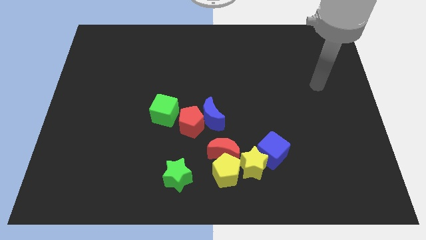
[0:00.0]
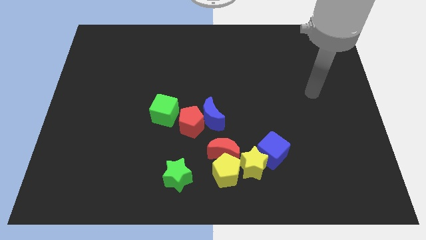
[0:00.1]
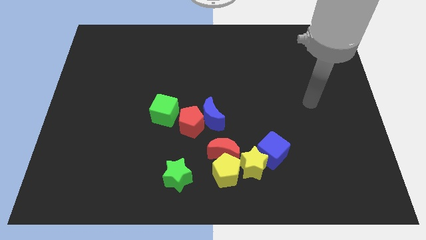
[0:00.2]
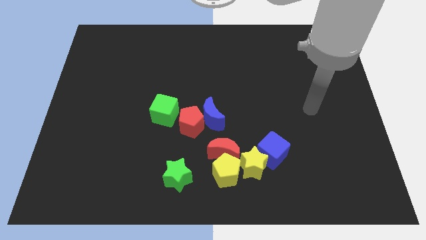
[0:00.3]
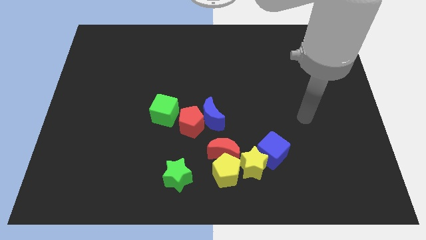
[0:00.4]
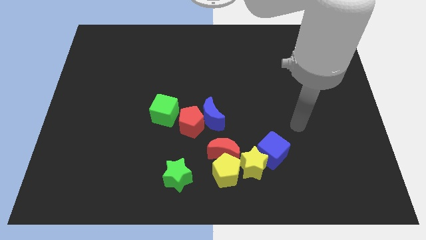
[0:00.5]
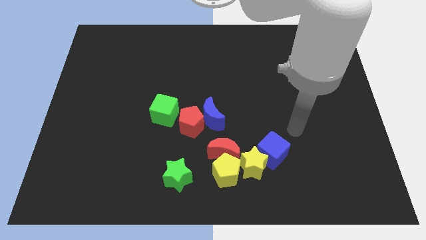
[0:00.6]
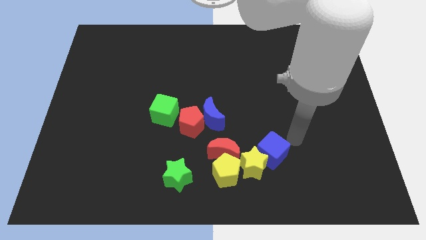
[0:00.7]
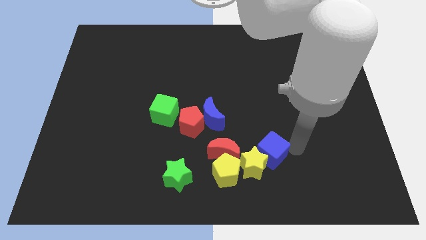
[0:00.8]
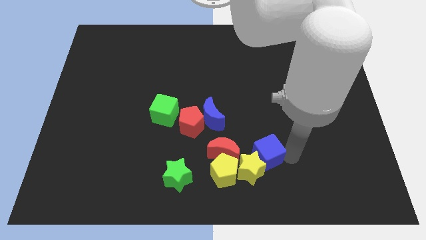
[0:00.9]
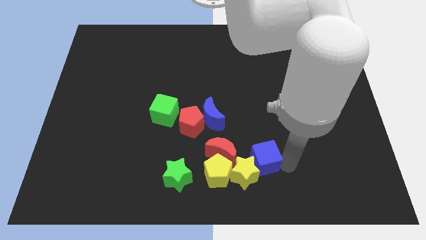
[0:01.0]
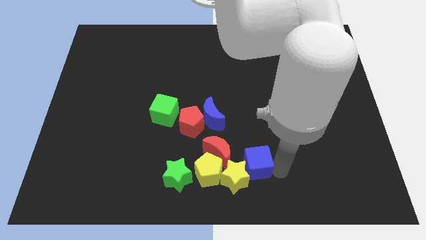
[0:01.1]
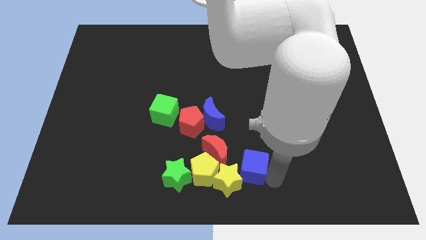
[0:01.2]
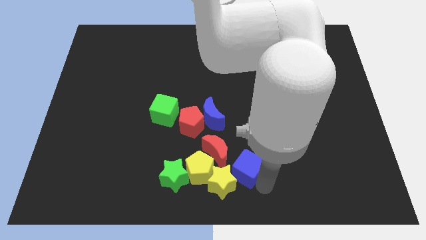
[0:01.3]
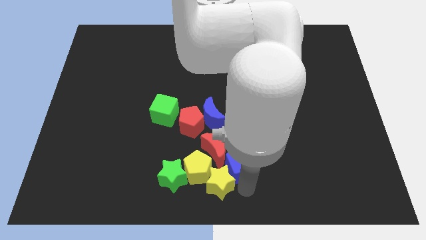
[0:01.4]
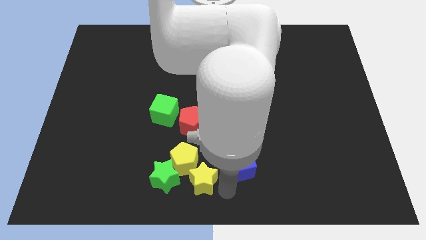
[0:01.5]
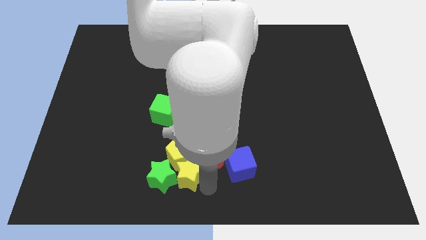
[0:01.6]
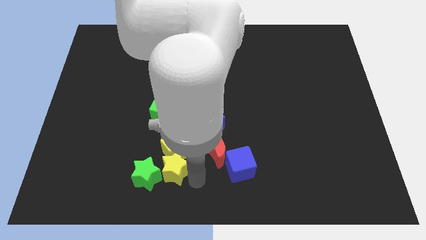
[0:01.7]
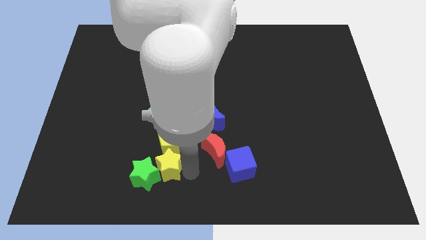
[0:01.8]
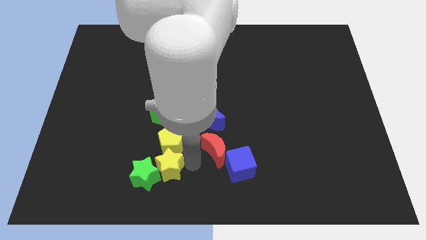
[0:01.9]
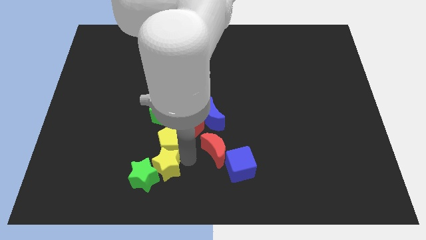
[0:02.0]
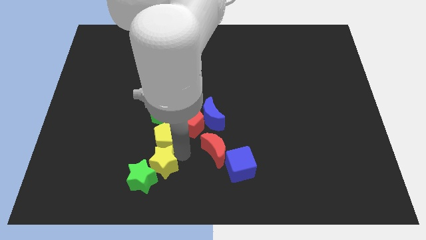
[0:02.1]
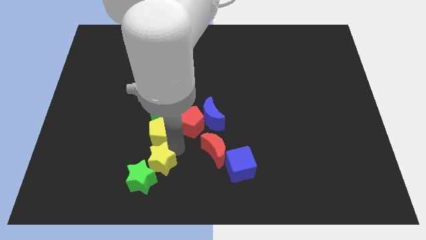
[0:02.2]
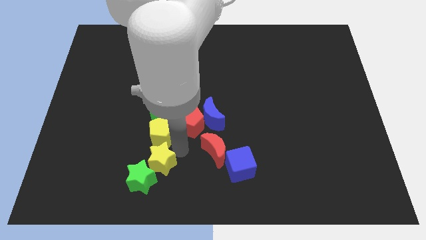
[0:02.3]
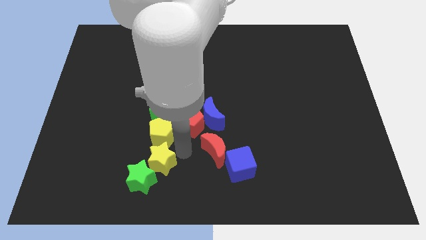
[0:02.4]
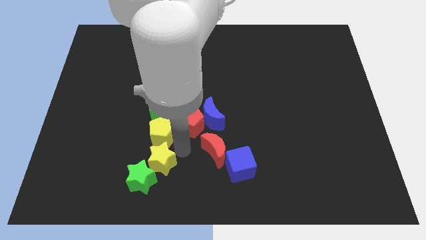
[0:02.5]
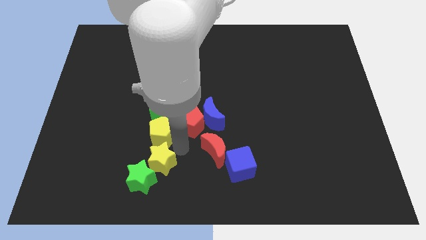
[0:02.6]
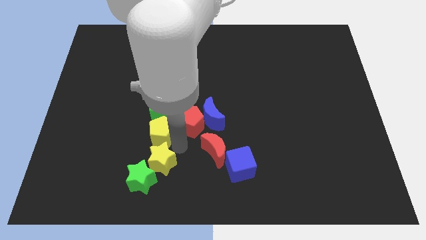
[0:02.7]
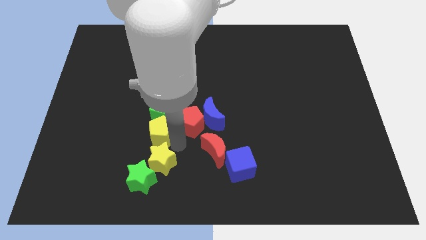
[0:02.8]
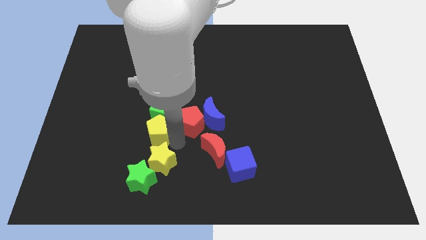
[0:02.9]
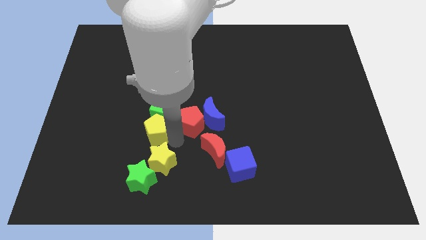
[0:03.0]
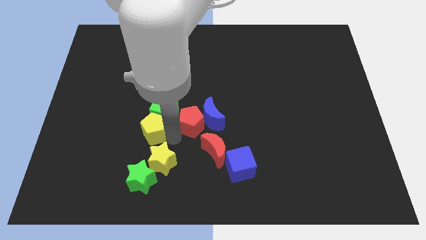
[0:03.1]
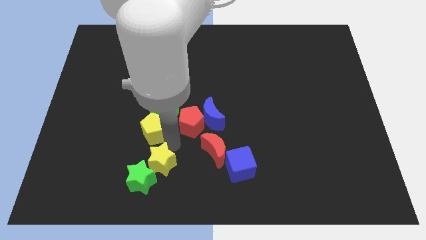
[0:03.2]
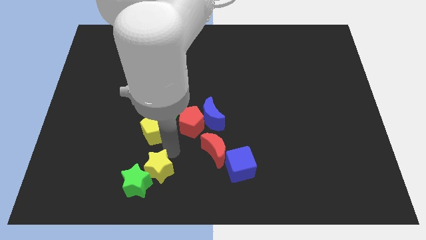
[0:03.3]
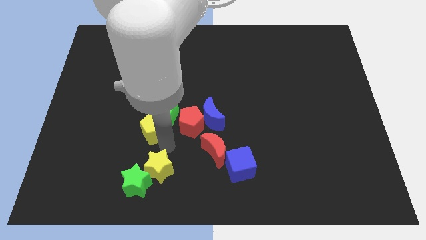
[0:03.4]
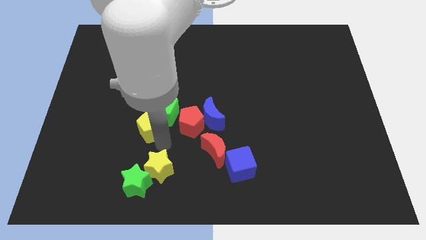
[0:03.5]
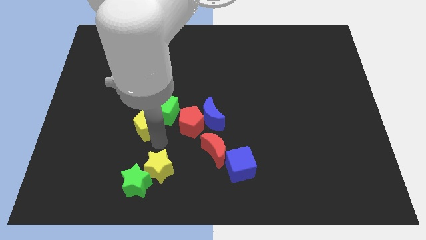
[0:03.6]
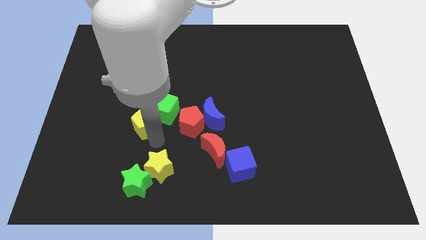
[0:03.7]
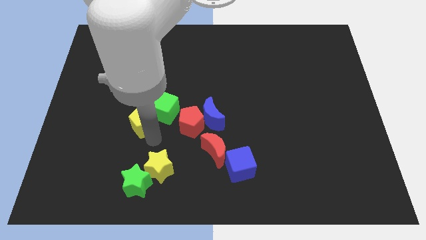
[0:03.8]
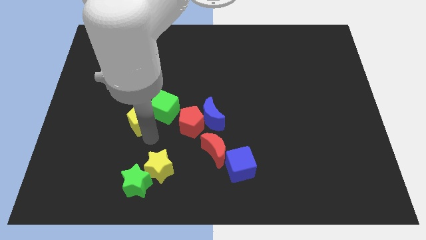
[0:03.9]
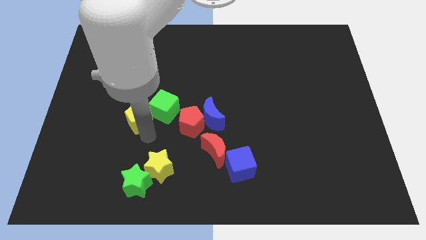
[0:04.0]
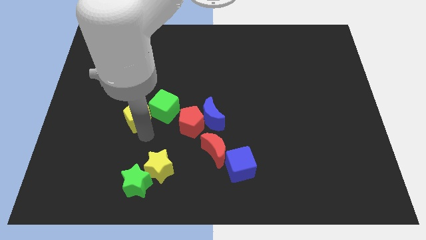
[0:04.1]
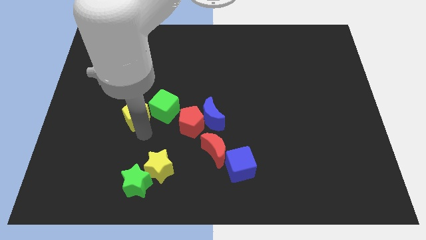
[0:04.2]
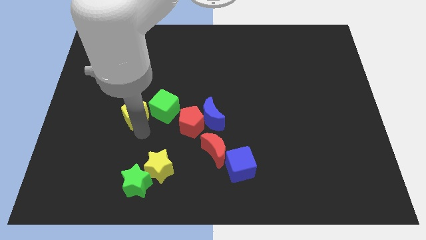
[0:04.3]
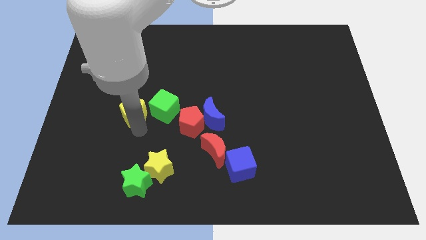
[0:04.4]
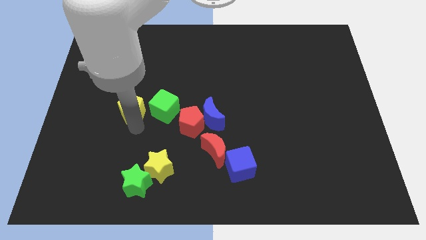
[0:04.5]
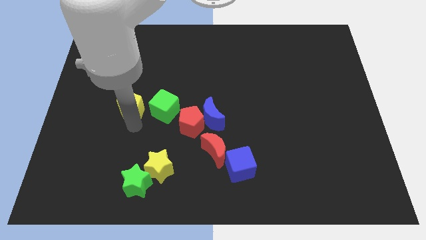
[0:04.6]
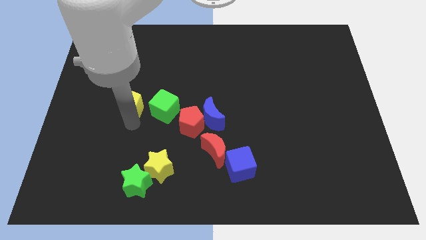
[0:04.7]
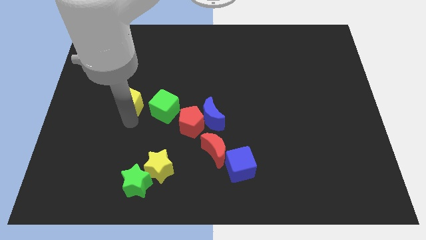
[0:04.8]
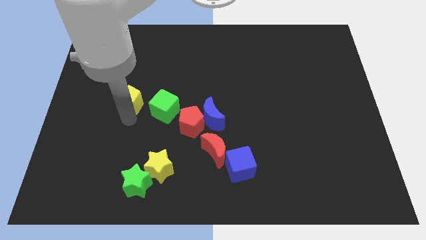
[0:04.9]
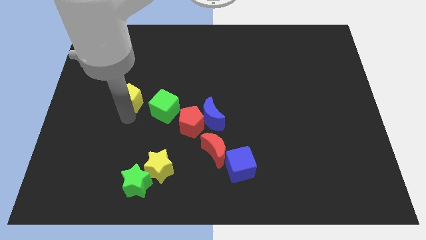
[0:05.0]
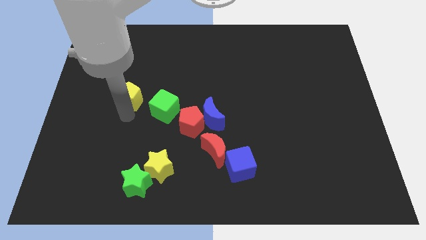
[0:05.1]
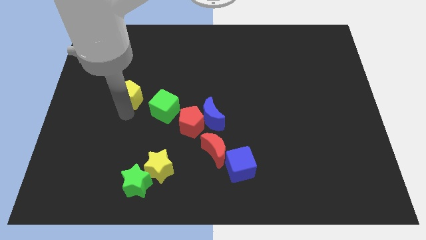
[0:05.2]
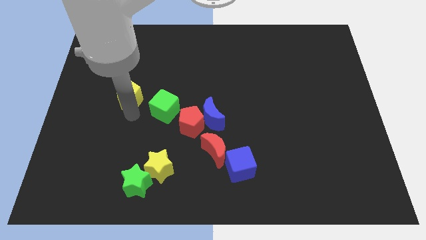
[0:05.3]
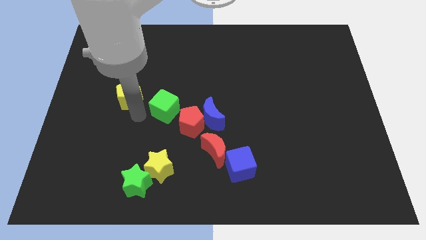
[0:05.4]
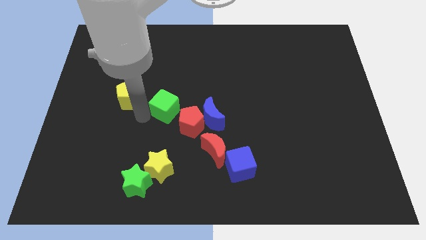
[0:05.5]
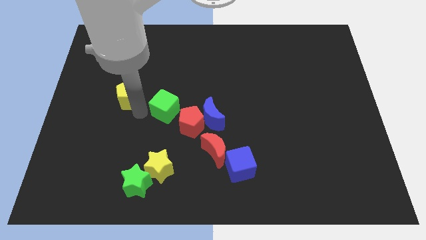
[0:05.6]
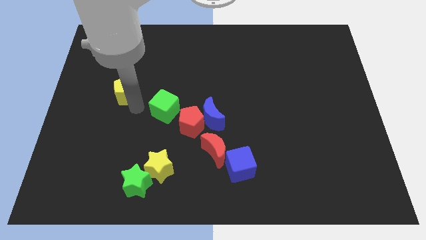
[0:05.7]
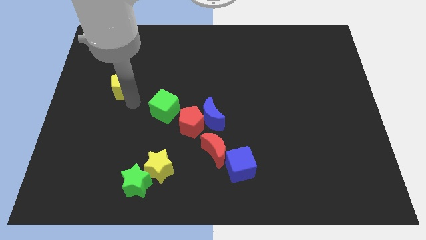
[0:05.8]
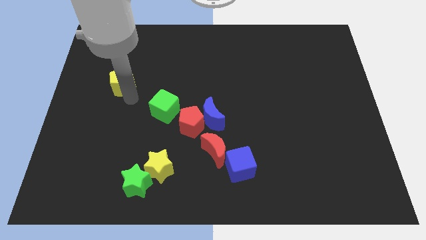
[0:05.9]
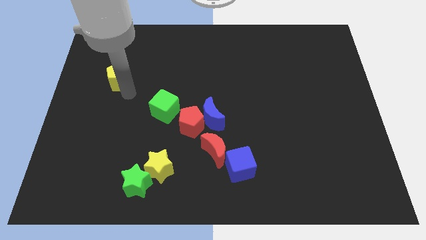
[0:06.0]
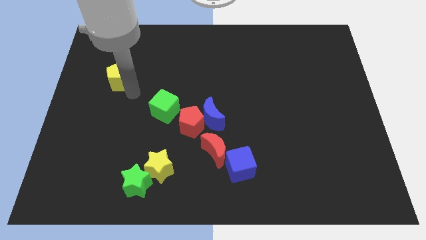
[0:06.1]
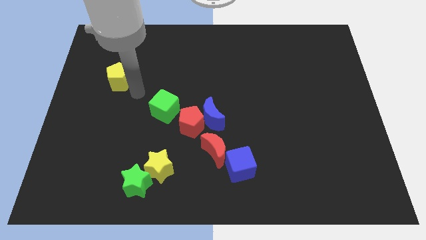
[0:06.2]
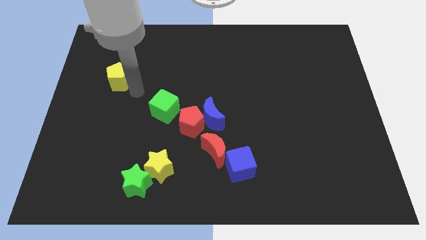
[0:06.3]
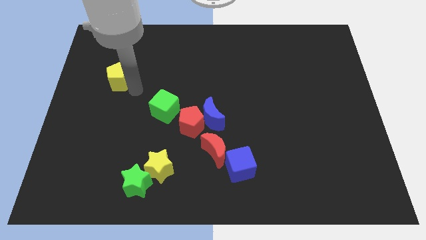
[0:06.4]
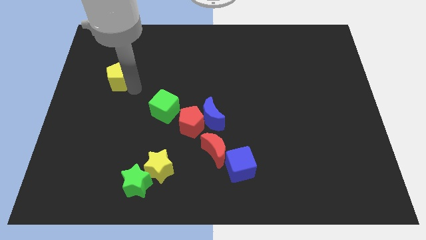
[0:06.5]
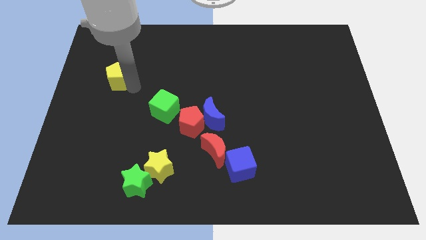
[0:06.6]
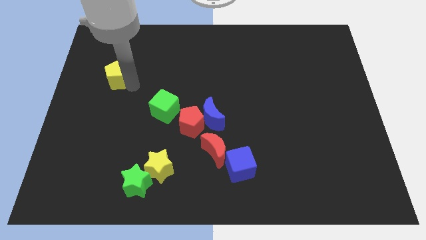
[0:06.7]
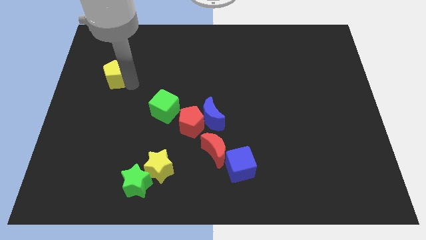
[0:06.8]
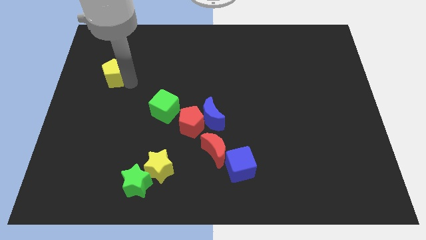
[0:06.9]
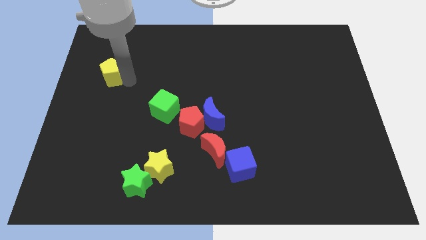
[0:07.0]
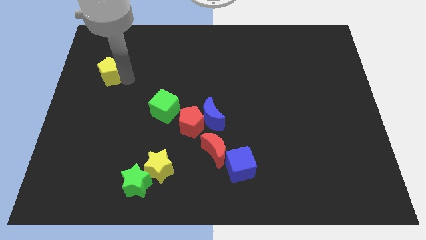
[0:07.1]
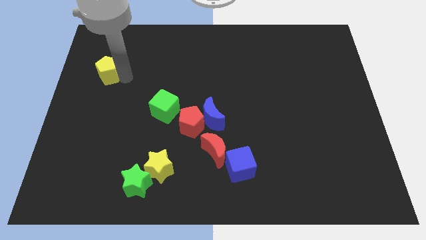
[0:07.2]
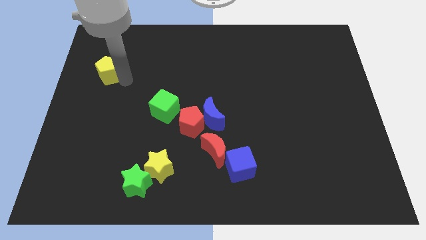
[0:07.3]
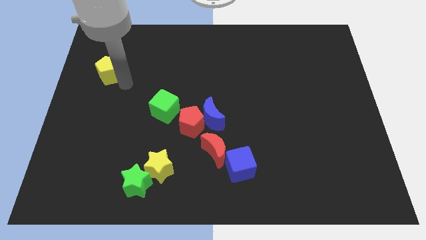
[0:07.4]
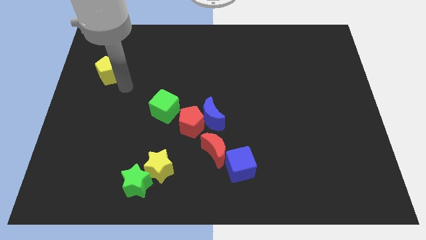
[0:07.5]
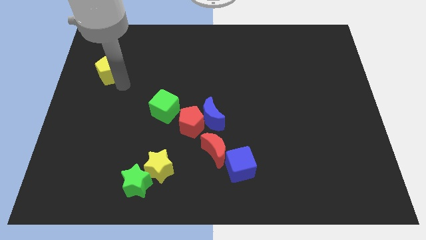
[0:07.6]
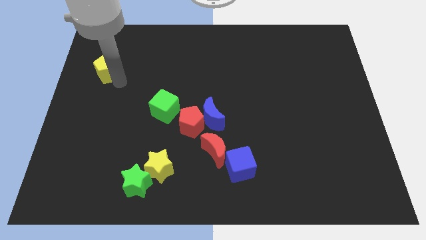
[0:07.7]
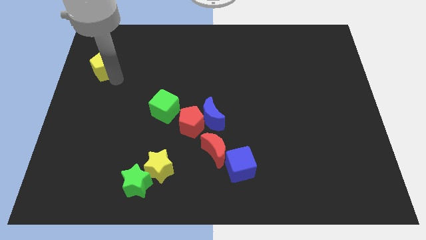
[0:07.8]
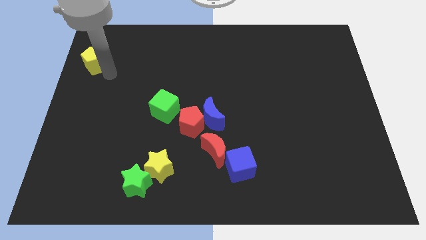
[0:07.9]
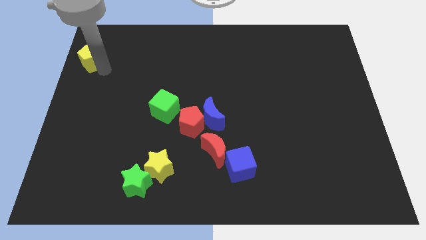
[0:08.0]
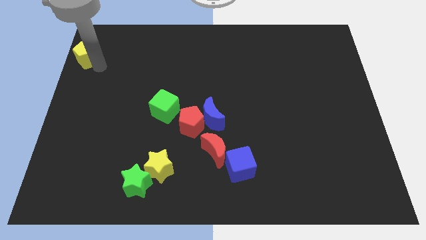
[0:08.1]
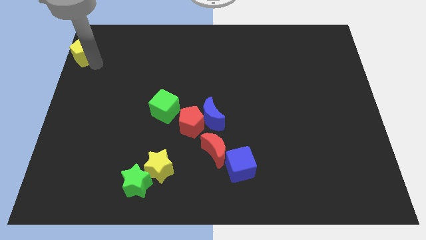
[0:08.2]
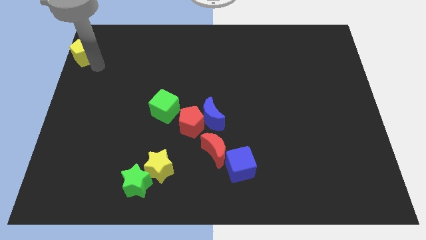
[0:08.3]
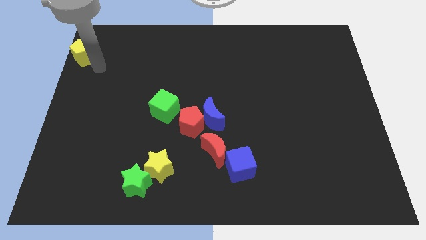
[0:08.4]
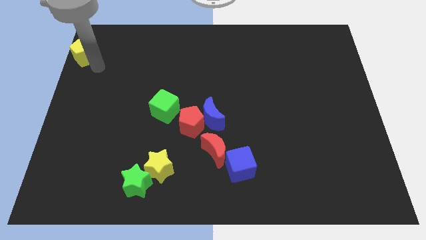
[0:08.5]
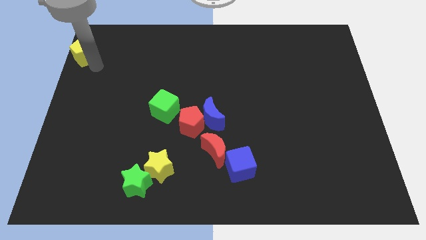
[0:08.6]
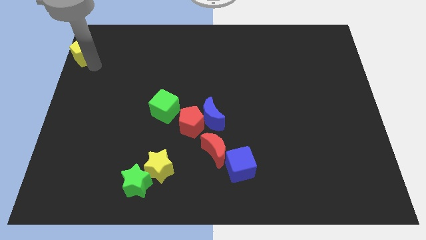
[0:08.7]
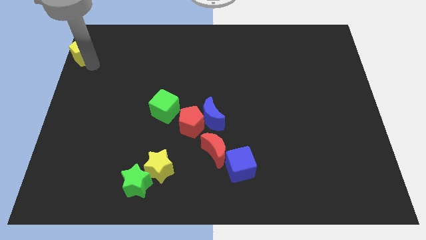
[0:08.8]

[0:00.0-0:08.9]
move the yellow pentagon to the top left of the board
